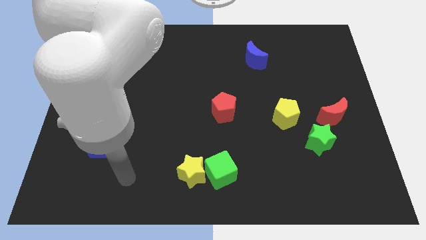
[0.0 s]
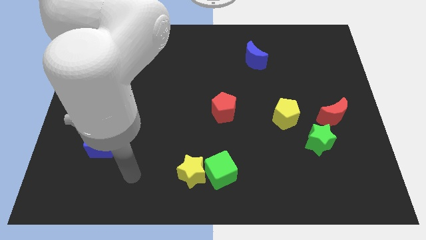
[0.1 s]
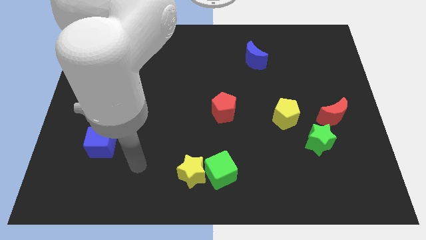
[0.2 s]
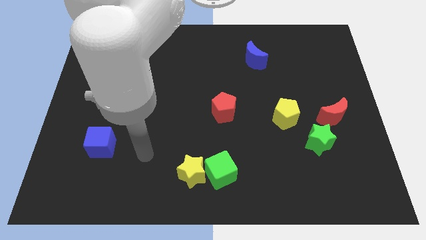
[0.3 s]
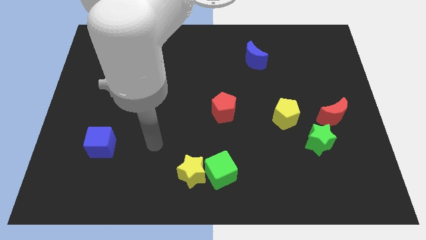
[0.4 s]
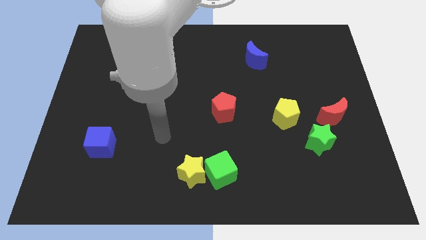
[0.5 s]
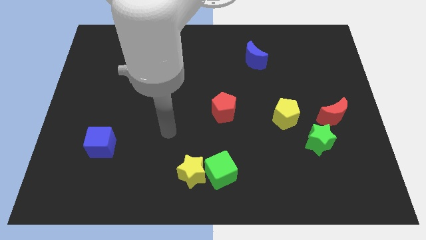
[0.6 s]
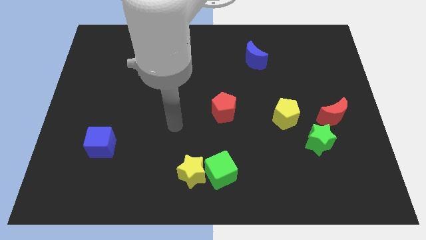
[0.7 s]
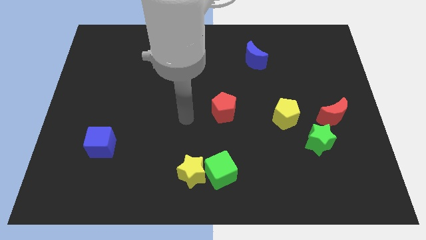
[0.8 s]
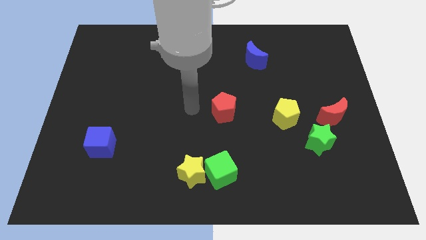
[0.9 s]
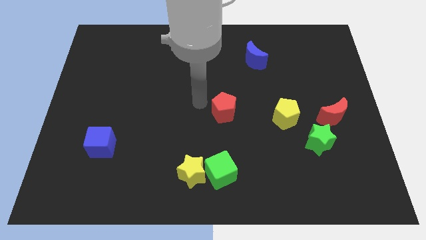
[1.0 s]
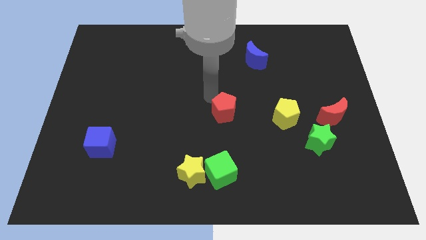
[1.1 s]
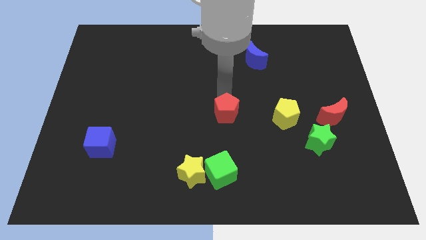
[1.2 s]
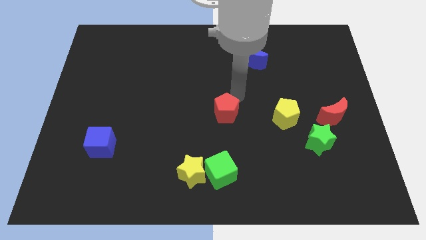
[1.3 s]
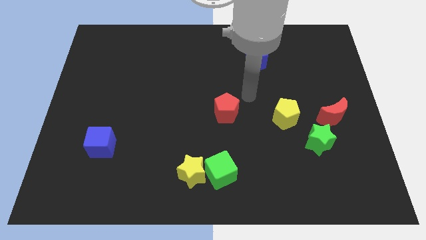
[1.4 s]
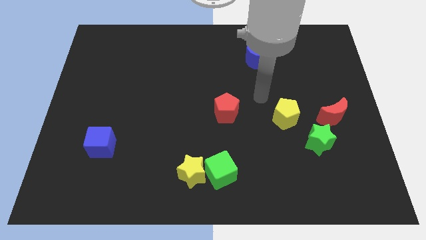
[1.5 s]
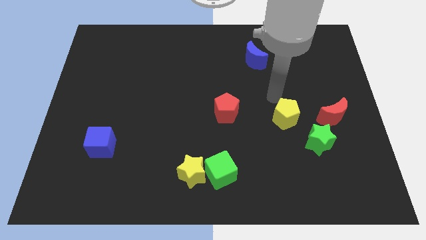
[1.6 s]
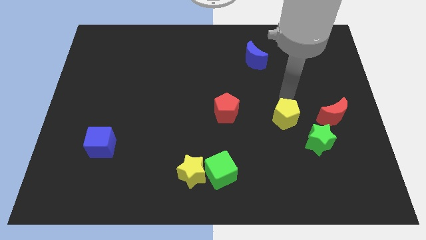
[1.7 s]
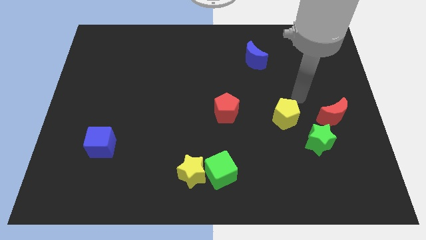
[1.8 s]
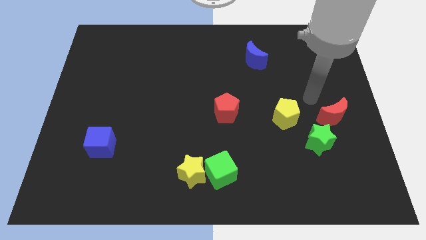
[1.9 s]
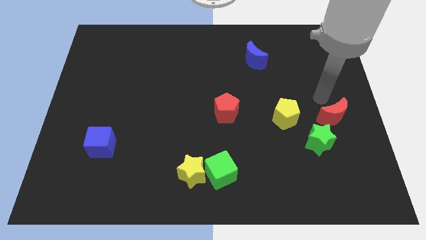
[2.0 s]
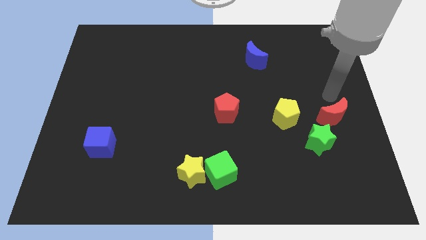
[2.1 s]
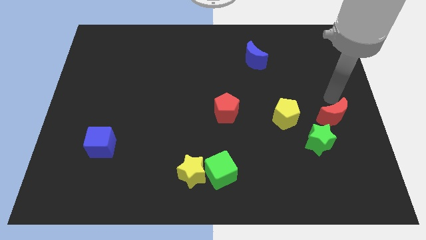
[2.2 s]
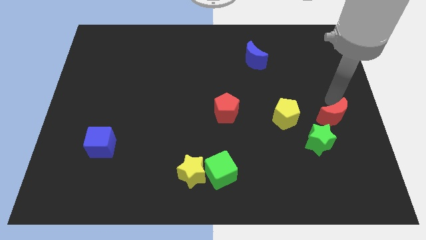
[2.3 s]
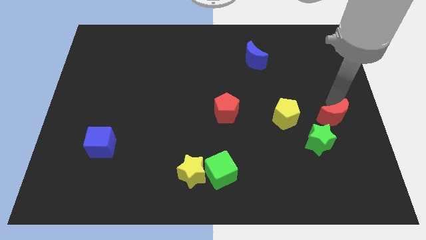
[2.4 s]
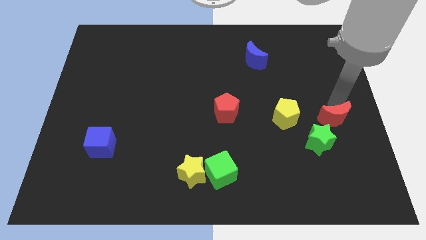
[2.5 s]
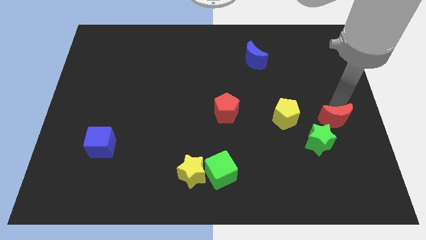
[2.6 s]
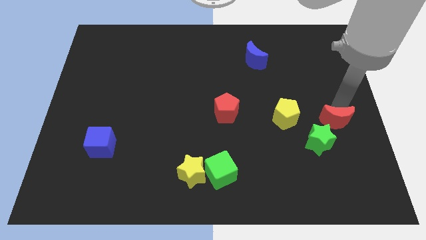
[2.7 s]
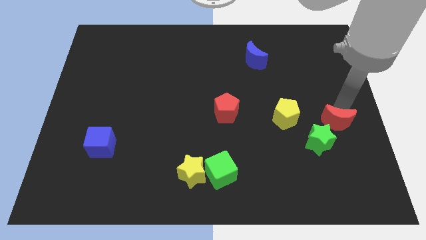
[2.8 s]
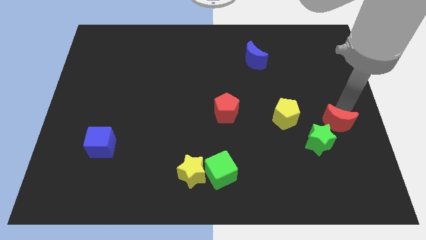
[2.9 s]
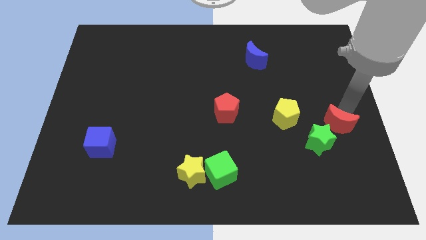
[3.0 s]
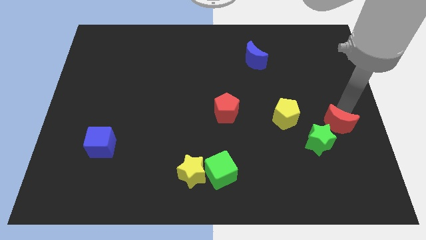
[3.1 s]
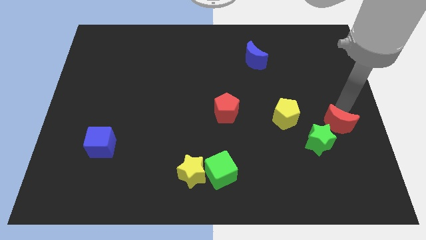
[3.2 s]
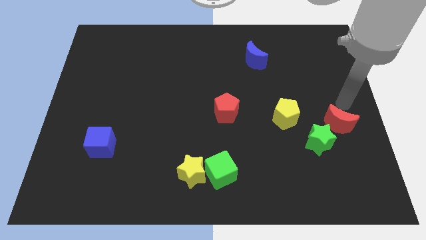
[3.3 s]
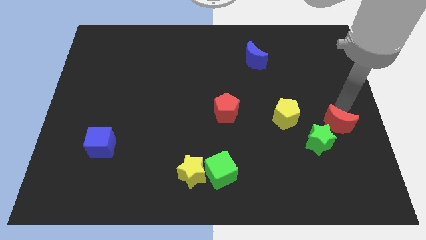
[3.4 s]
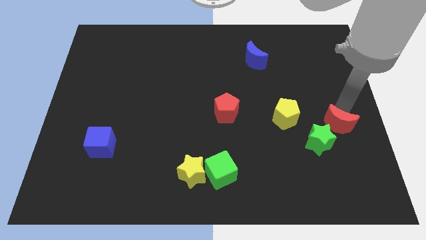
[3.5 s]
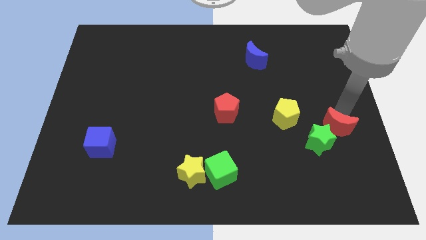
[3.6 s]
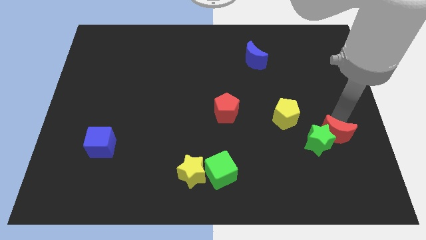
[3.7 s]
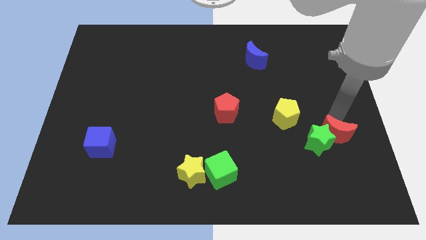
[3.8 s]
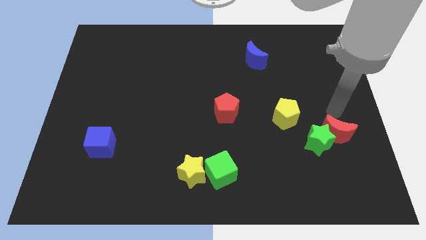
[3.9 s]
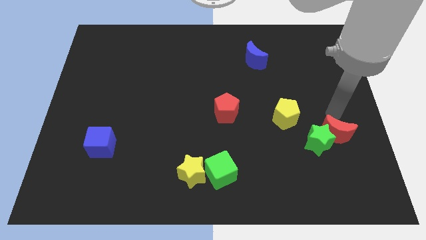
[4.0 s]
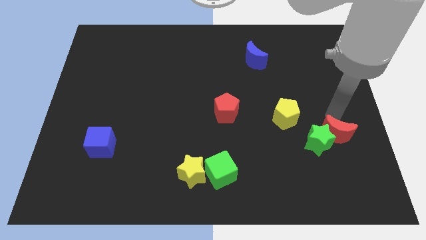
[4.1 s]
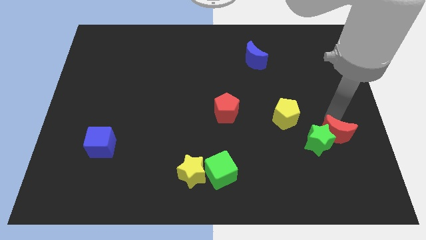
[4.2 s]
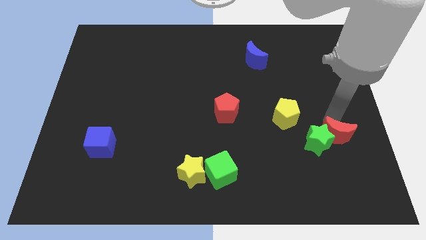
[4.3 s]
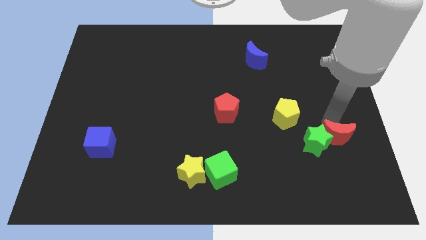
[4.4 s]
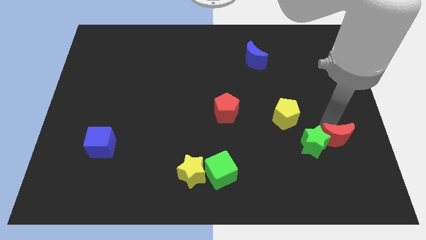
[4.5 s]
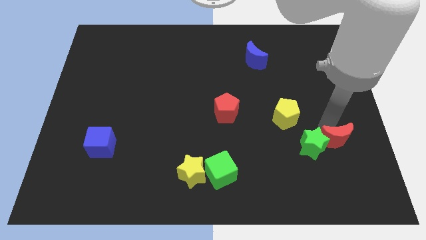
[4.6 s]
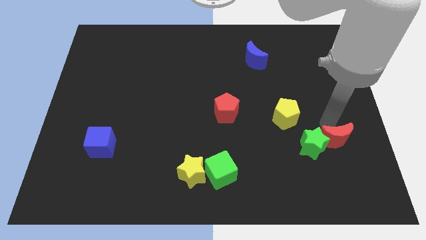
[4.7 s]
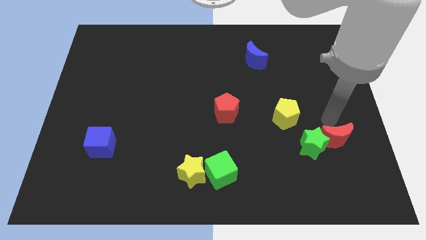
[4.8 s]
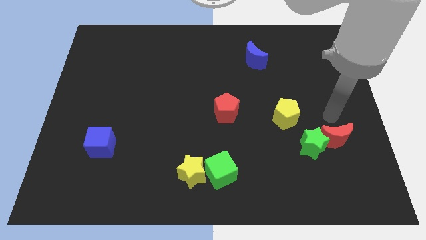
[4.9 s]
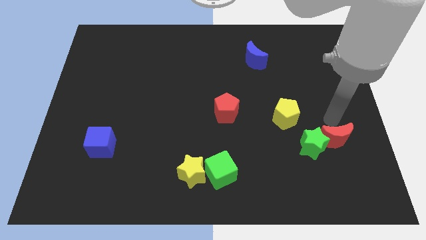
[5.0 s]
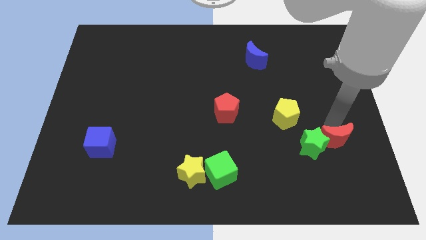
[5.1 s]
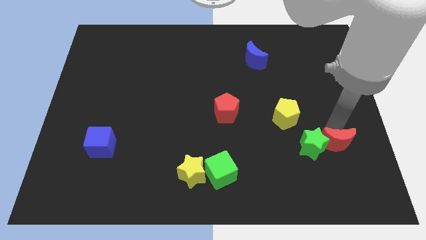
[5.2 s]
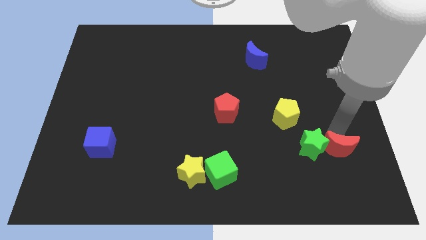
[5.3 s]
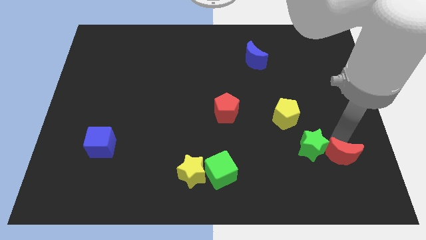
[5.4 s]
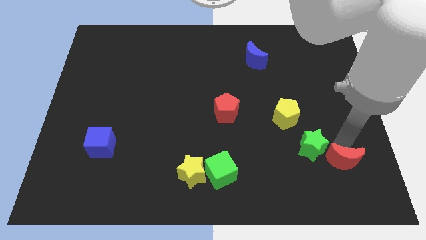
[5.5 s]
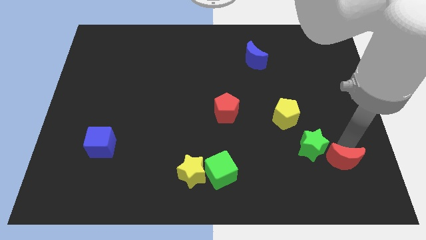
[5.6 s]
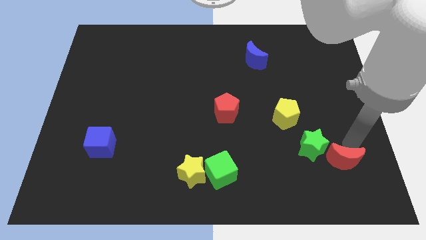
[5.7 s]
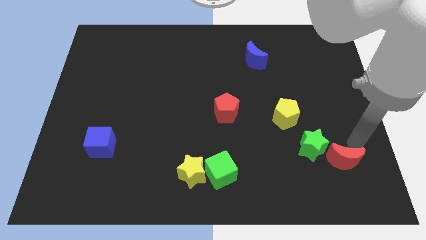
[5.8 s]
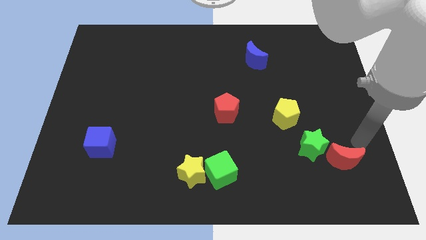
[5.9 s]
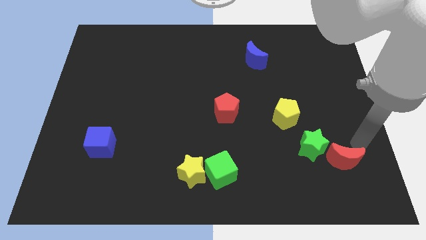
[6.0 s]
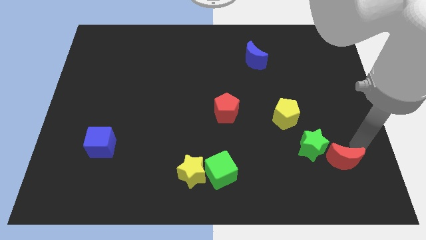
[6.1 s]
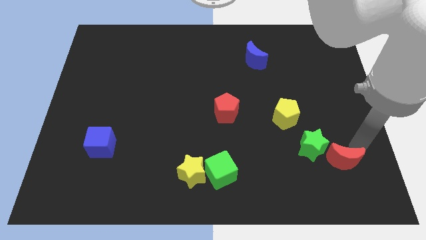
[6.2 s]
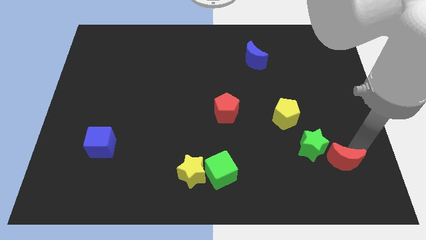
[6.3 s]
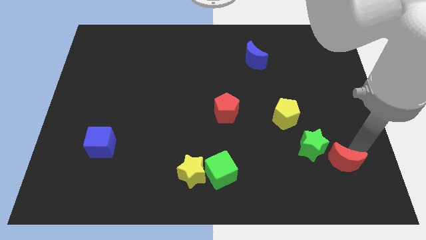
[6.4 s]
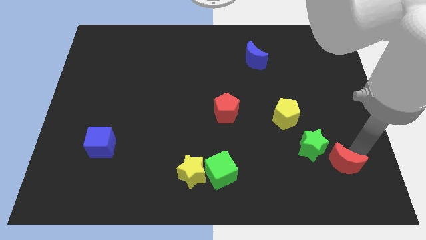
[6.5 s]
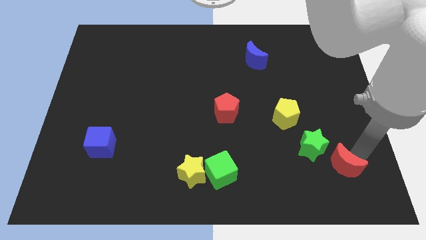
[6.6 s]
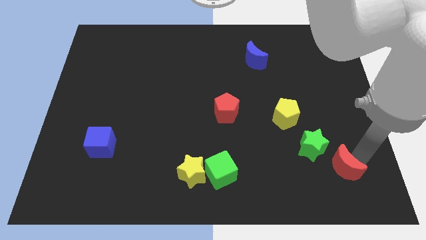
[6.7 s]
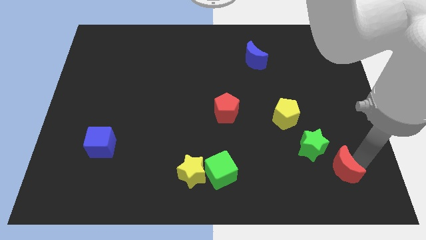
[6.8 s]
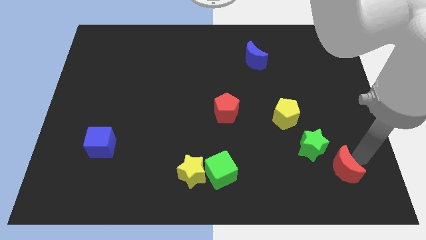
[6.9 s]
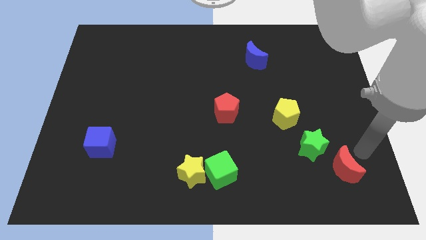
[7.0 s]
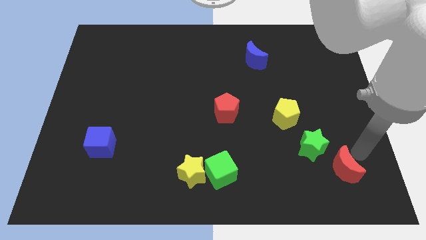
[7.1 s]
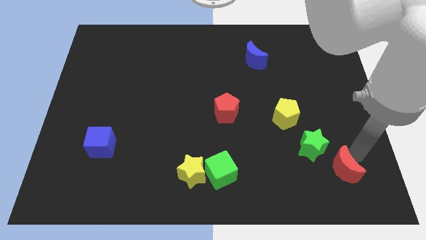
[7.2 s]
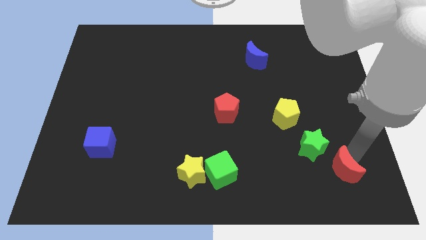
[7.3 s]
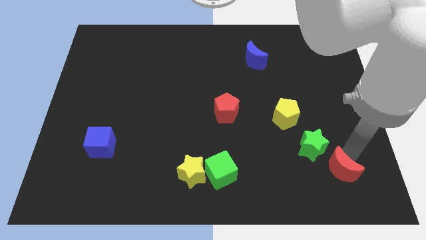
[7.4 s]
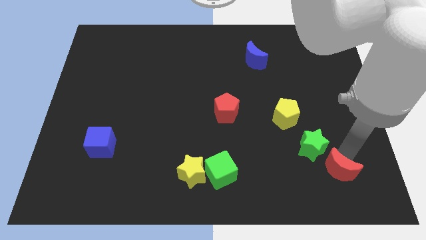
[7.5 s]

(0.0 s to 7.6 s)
push the red moon below the green star

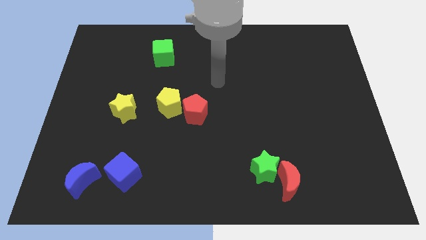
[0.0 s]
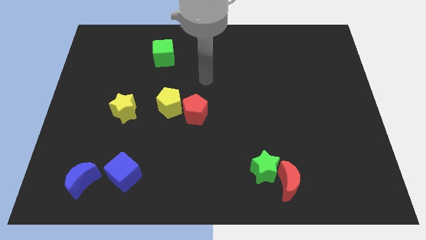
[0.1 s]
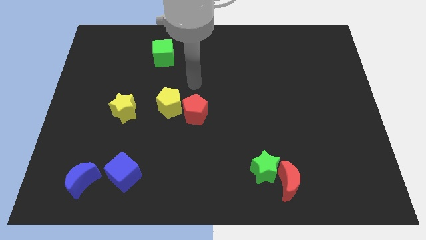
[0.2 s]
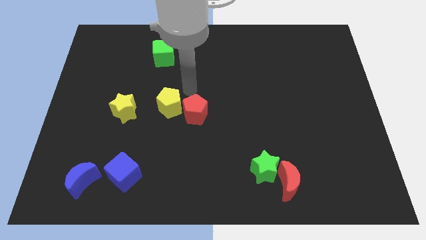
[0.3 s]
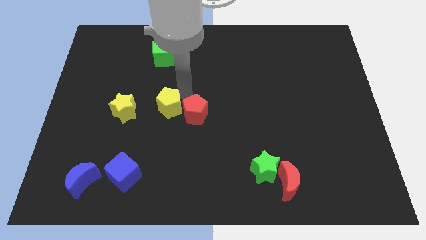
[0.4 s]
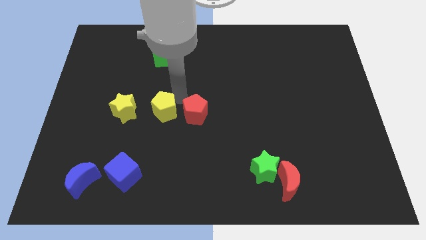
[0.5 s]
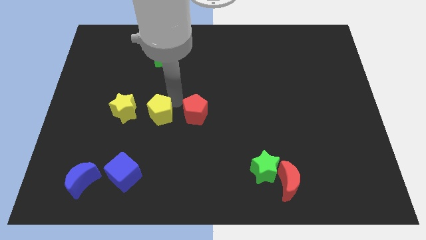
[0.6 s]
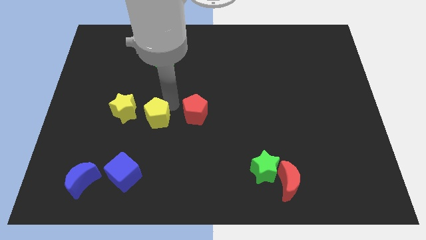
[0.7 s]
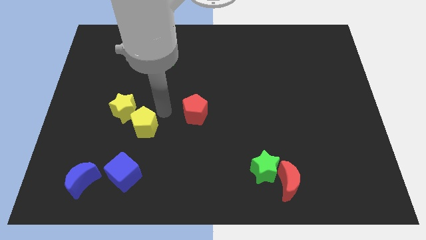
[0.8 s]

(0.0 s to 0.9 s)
put the yellow pentagon below the yellow star
